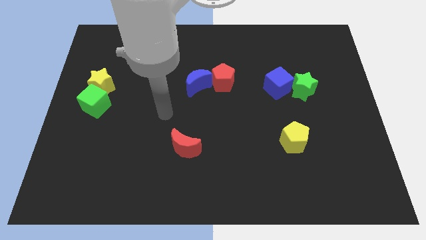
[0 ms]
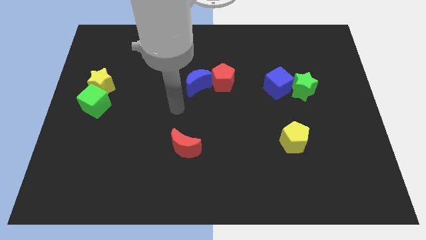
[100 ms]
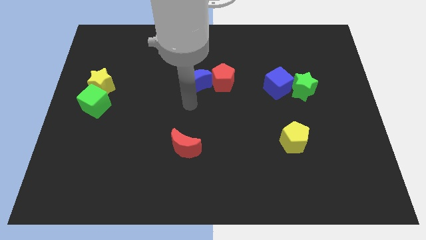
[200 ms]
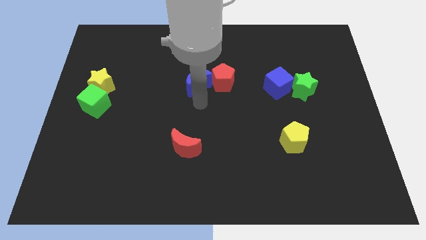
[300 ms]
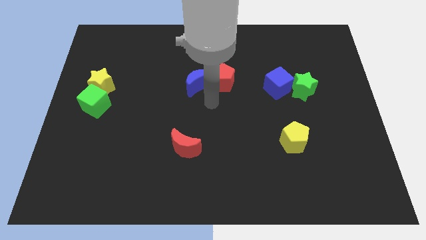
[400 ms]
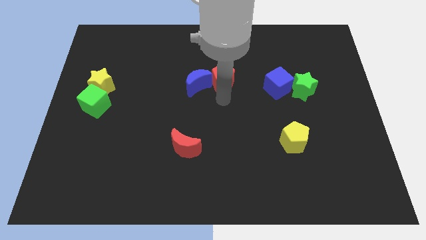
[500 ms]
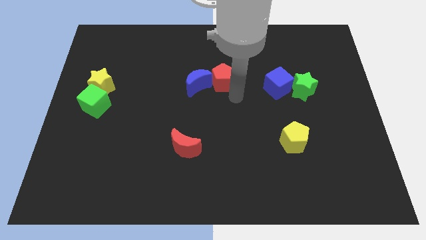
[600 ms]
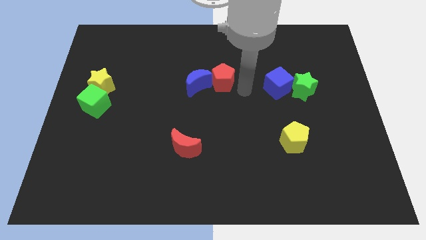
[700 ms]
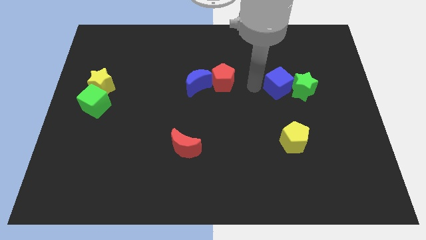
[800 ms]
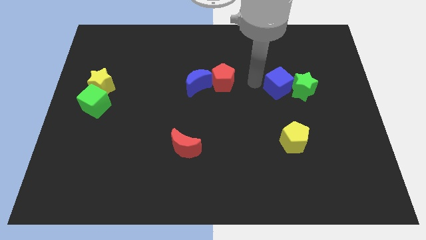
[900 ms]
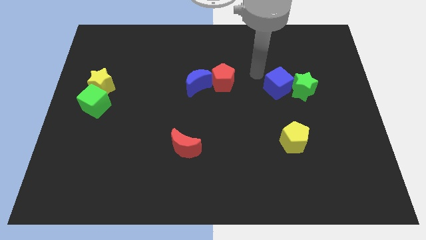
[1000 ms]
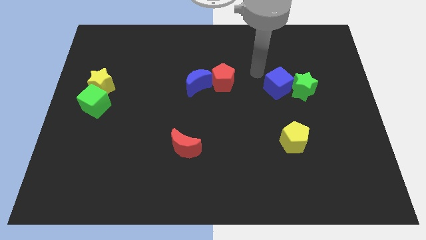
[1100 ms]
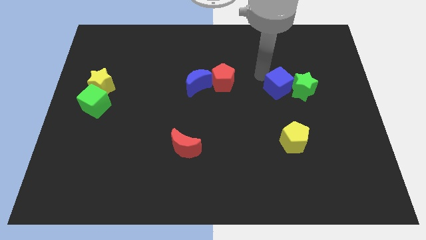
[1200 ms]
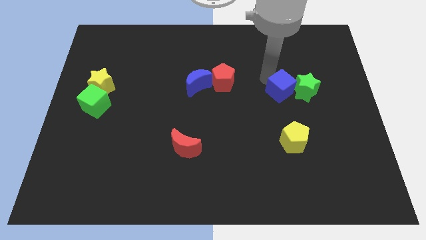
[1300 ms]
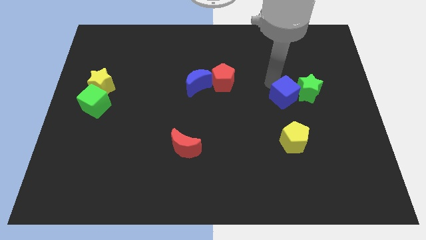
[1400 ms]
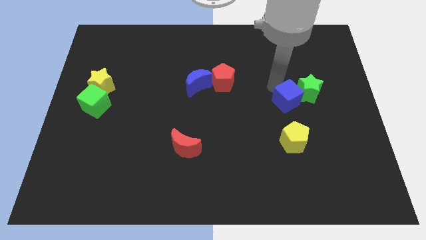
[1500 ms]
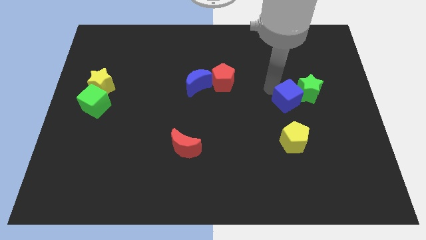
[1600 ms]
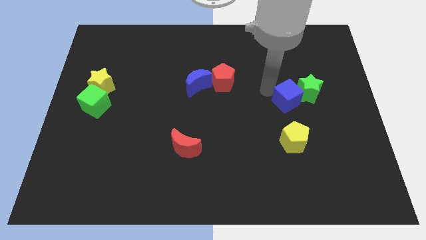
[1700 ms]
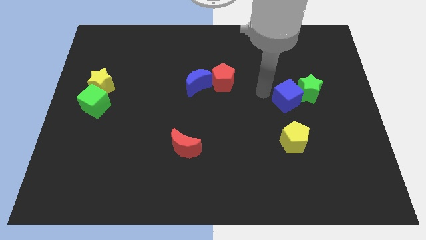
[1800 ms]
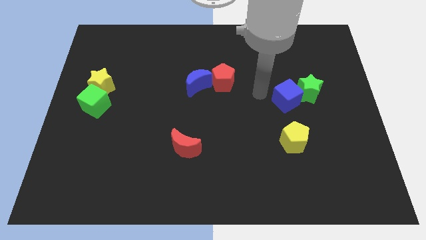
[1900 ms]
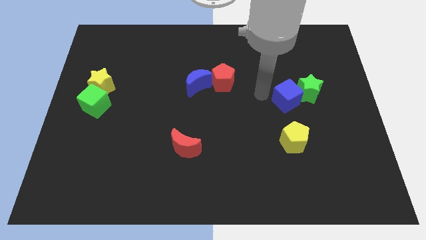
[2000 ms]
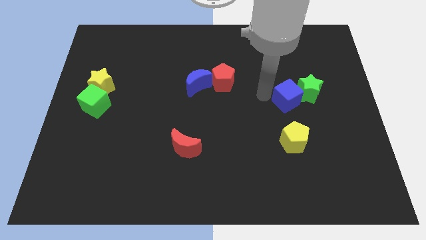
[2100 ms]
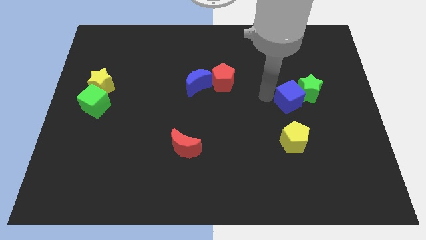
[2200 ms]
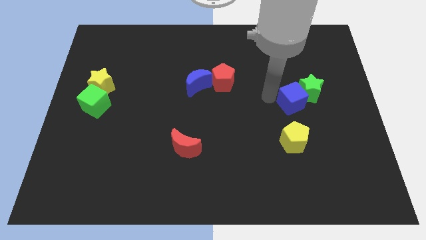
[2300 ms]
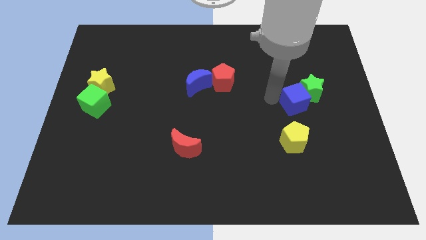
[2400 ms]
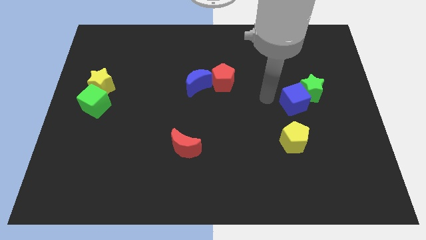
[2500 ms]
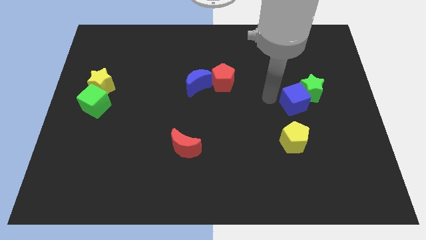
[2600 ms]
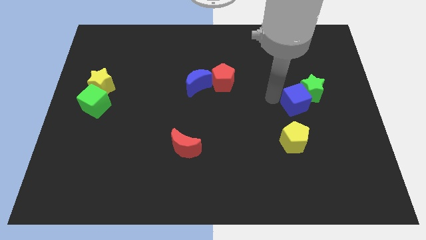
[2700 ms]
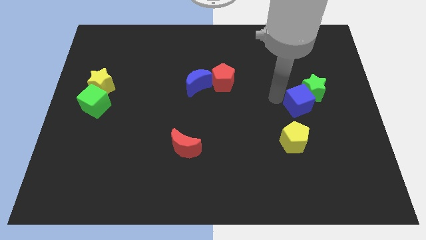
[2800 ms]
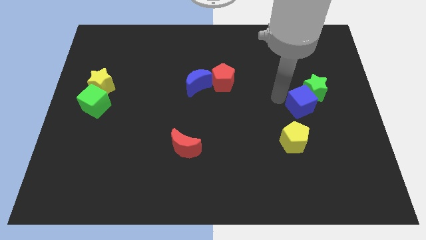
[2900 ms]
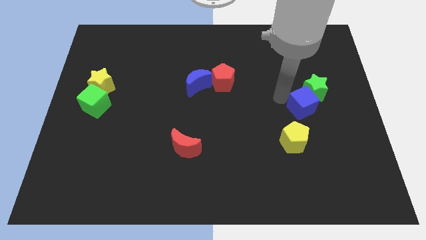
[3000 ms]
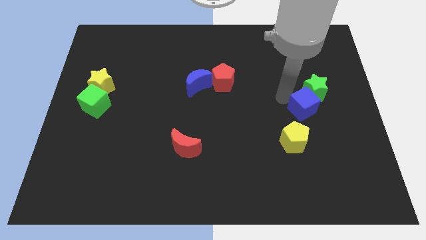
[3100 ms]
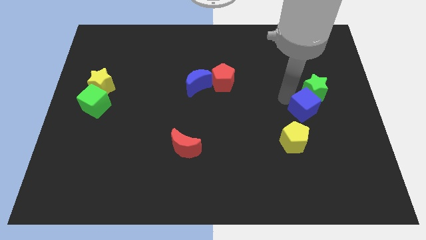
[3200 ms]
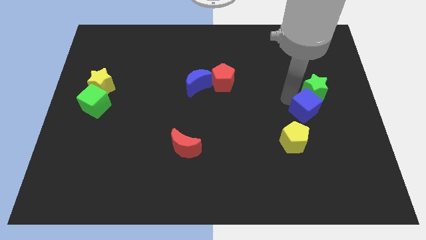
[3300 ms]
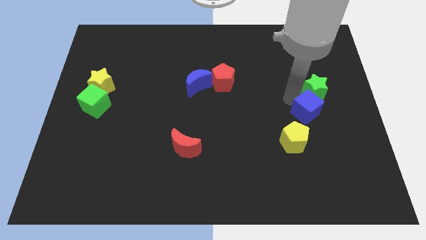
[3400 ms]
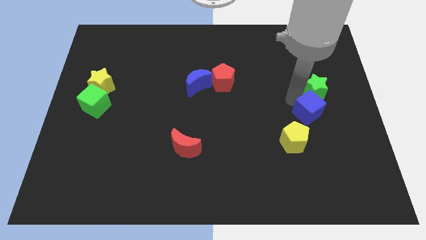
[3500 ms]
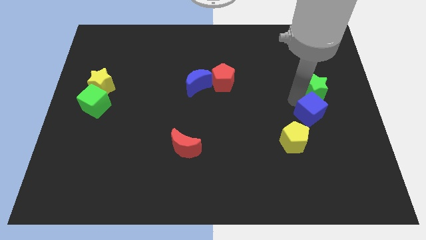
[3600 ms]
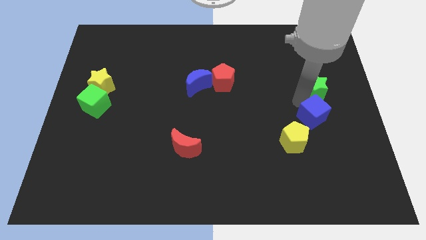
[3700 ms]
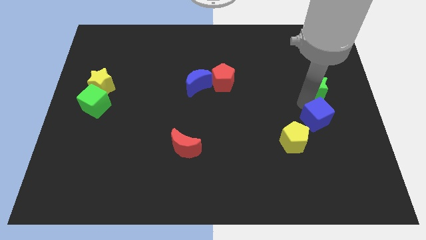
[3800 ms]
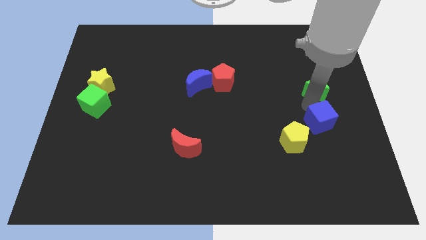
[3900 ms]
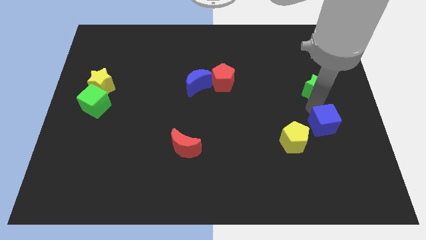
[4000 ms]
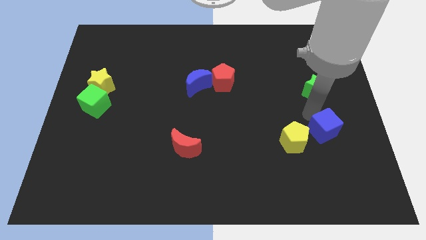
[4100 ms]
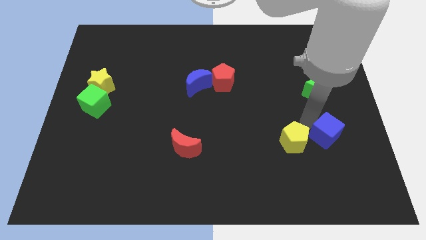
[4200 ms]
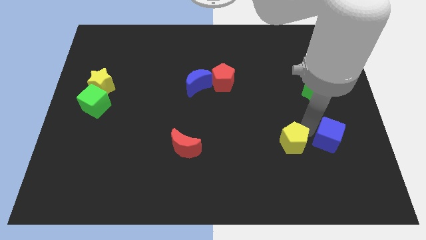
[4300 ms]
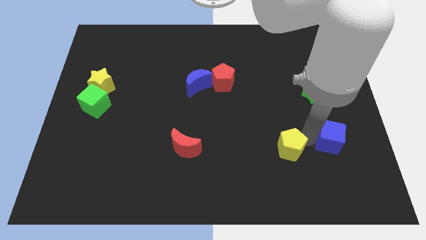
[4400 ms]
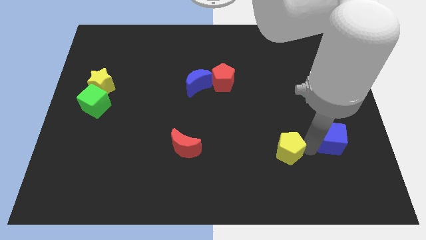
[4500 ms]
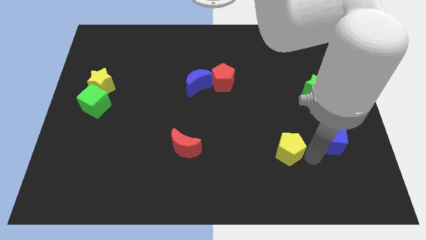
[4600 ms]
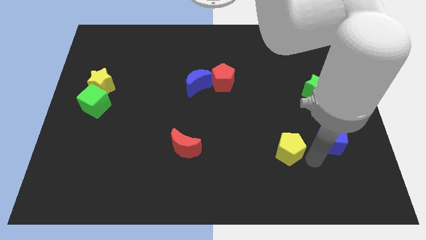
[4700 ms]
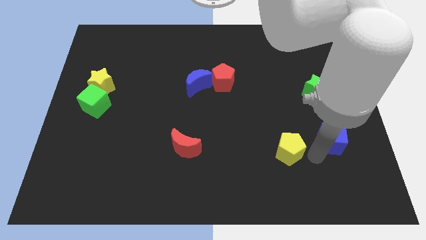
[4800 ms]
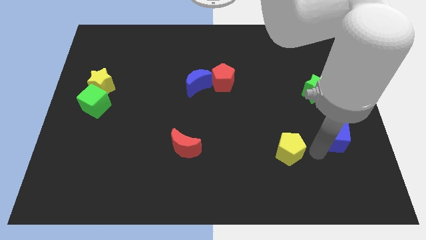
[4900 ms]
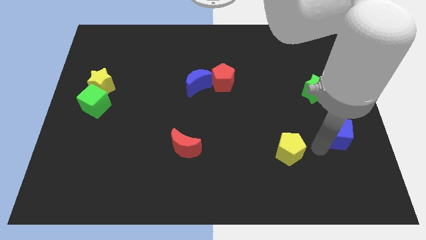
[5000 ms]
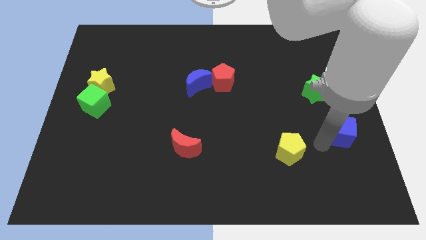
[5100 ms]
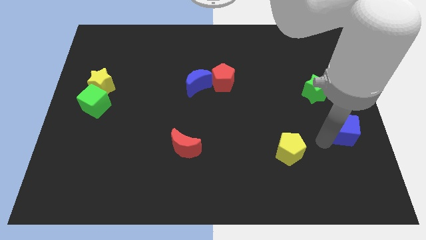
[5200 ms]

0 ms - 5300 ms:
push the blue cube to the right side of the board

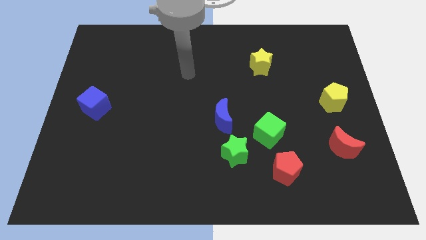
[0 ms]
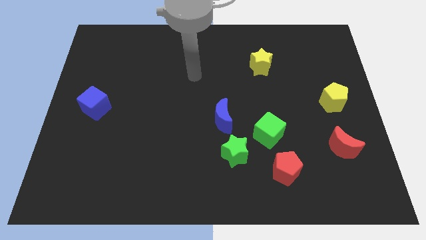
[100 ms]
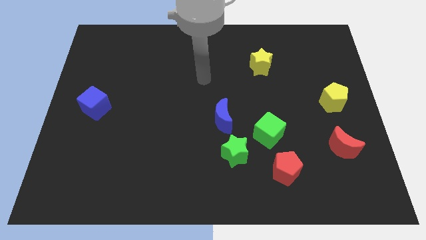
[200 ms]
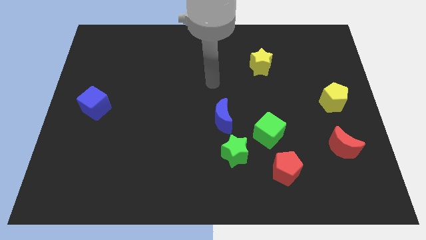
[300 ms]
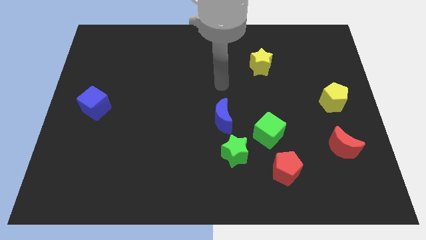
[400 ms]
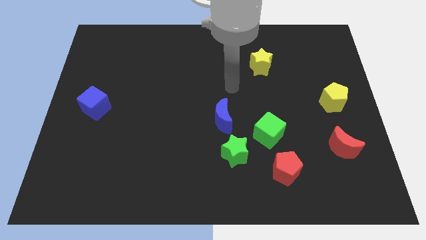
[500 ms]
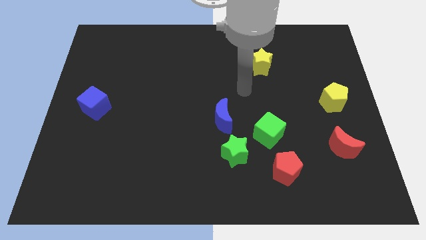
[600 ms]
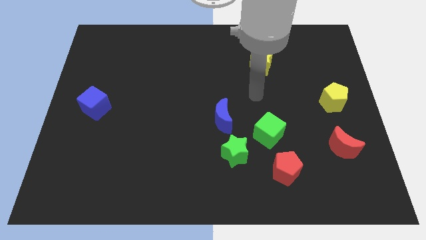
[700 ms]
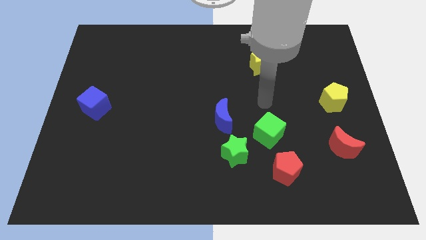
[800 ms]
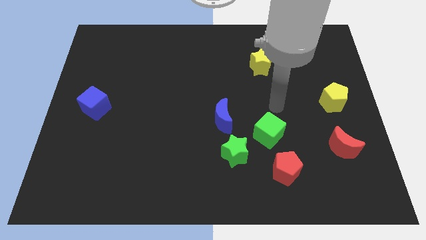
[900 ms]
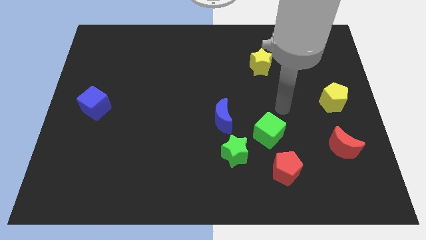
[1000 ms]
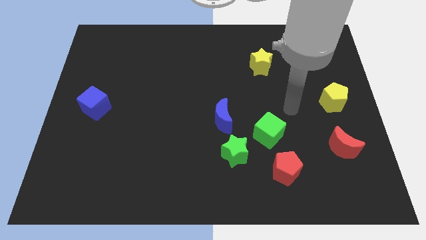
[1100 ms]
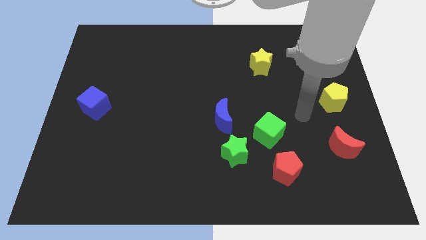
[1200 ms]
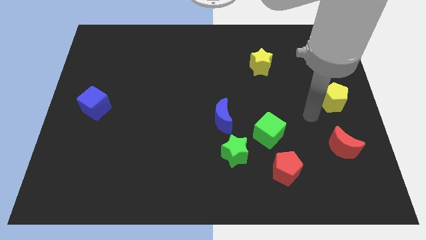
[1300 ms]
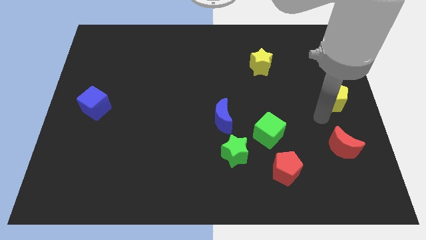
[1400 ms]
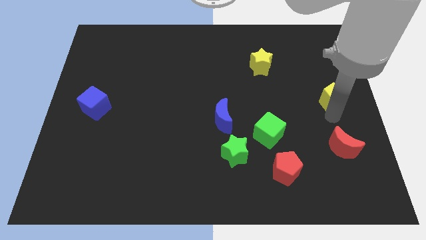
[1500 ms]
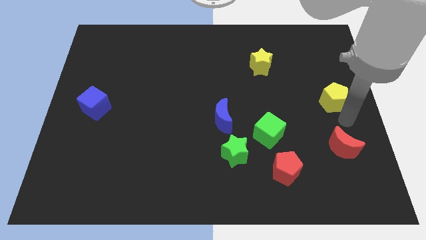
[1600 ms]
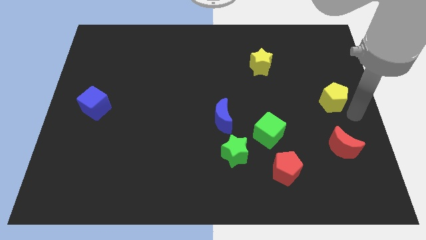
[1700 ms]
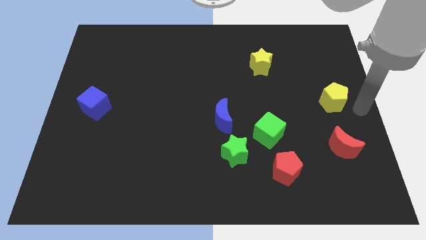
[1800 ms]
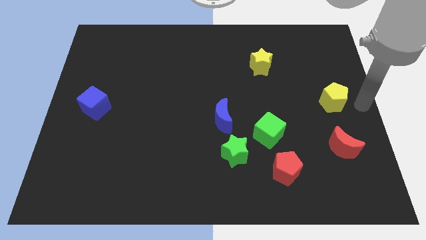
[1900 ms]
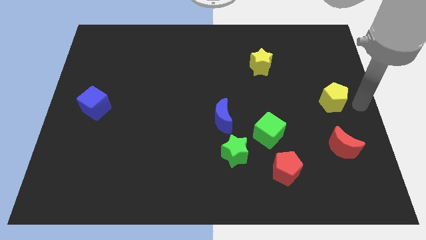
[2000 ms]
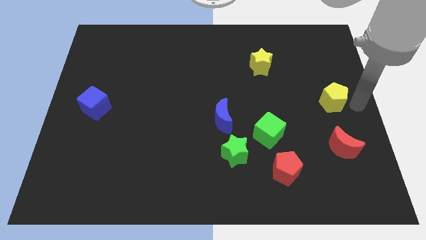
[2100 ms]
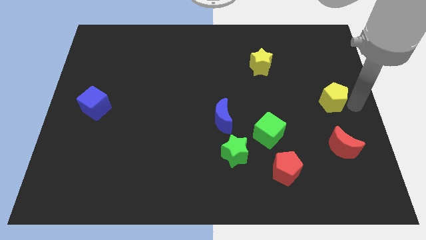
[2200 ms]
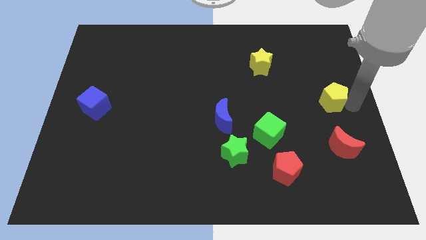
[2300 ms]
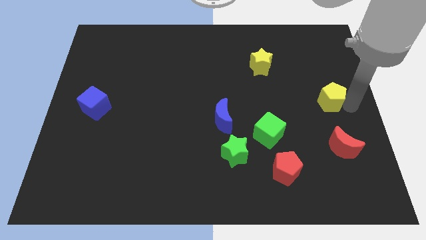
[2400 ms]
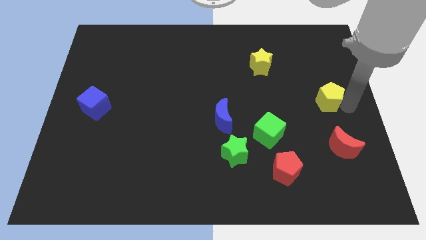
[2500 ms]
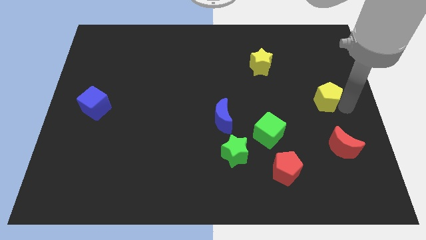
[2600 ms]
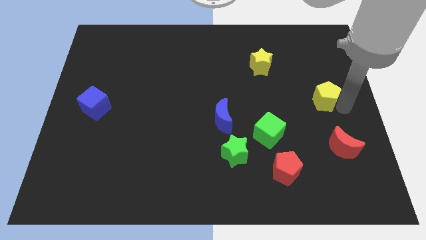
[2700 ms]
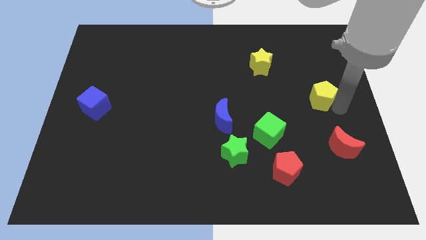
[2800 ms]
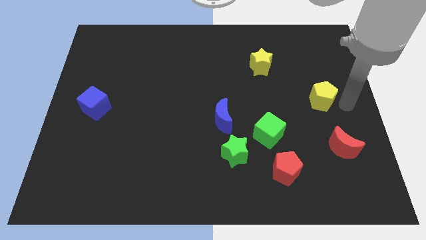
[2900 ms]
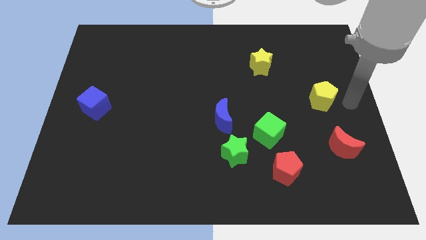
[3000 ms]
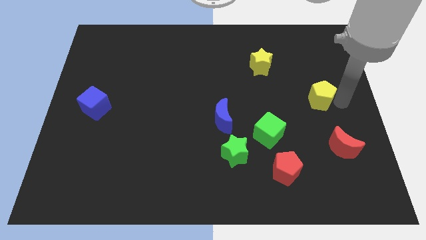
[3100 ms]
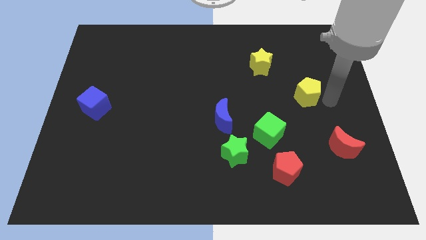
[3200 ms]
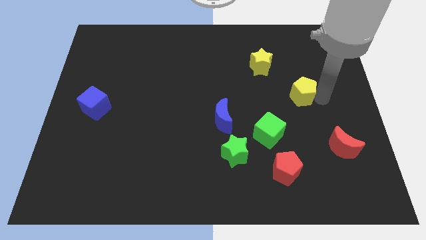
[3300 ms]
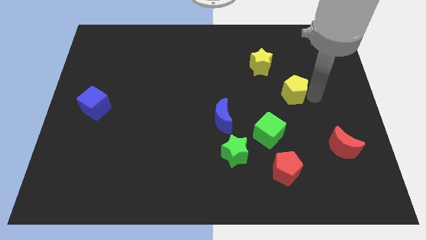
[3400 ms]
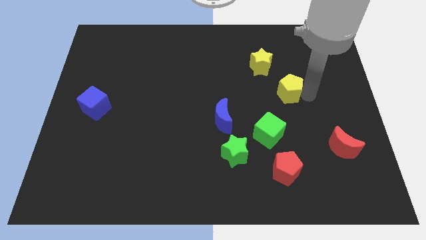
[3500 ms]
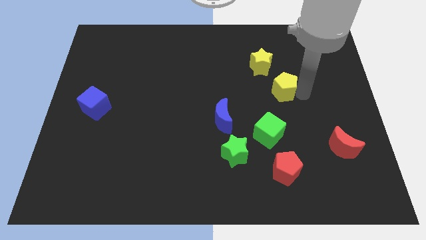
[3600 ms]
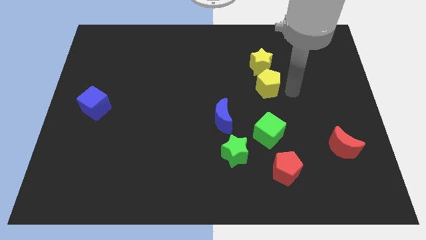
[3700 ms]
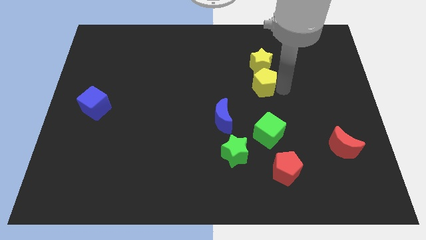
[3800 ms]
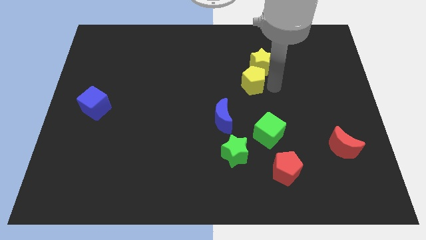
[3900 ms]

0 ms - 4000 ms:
move the yellow pentagon to the center of the board
